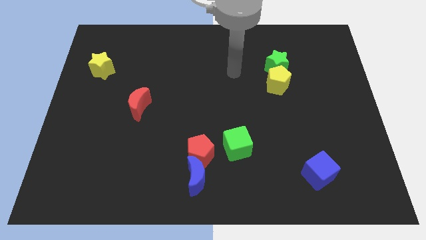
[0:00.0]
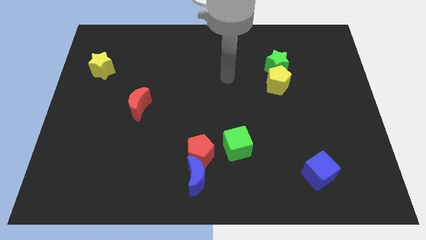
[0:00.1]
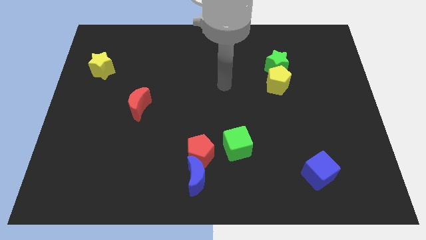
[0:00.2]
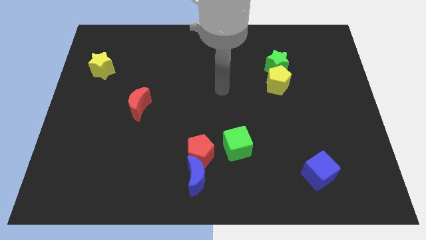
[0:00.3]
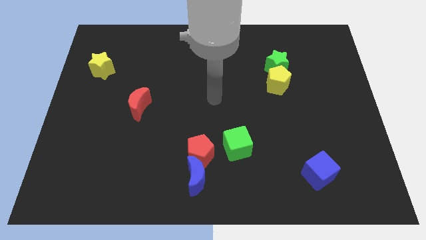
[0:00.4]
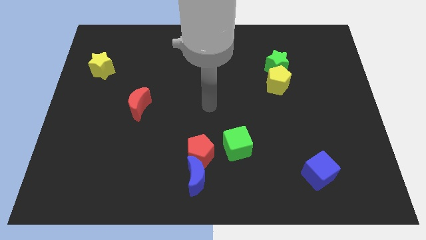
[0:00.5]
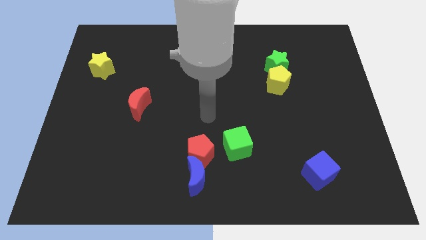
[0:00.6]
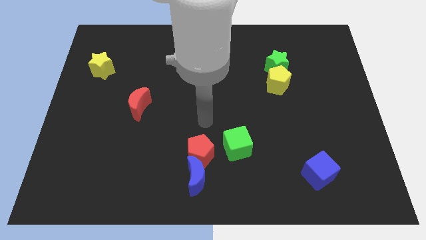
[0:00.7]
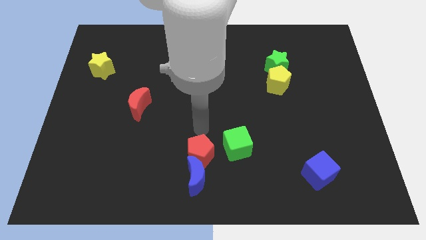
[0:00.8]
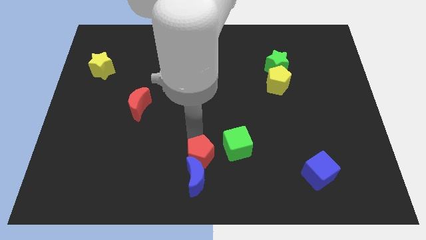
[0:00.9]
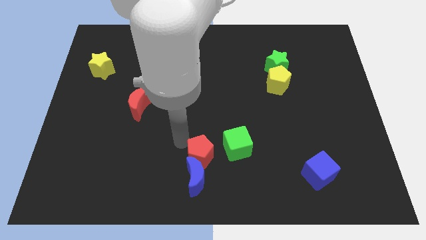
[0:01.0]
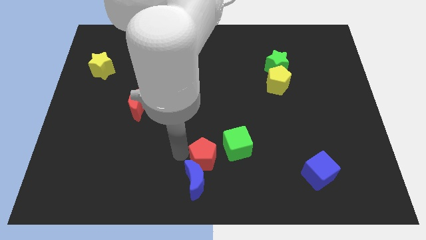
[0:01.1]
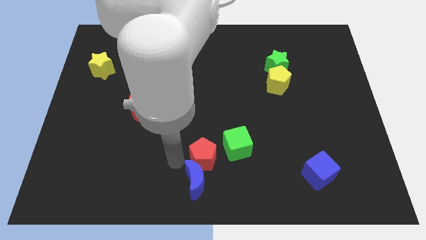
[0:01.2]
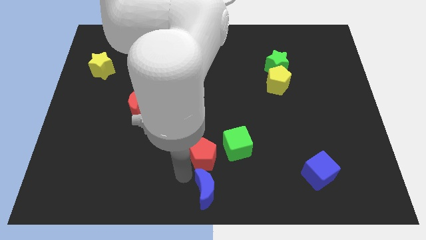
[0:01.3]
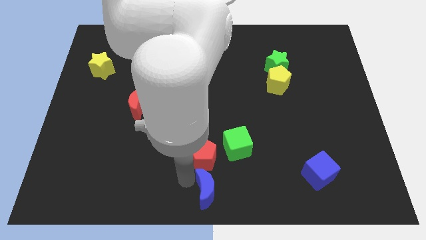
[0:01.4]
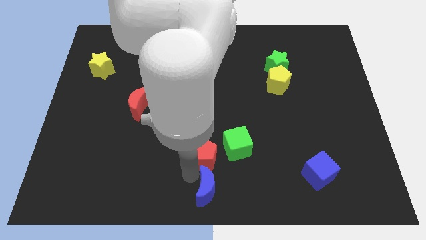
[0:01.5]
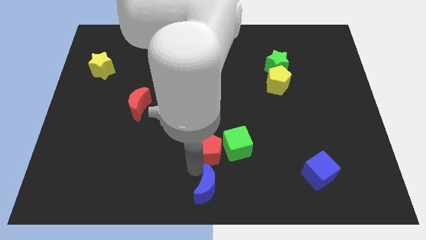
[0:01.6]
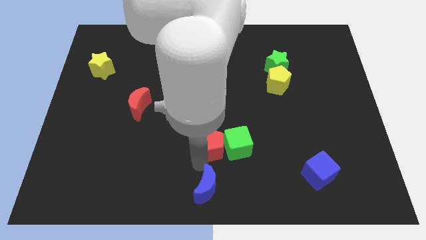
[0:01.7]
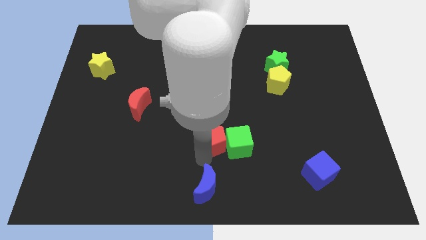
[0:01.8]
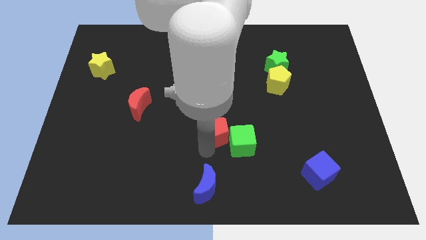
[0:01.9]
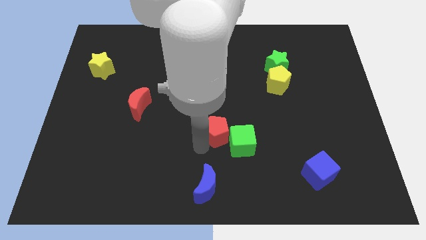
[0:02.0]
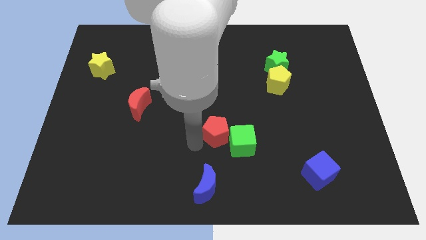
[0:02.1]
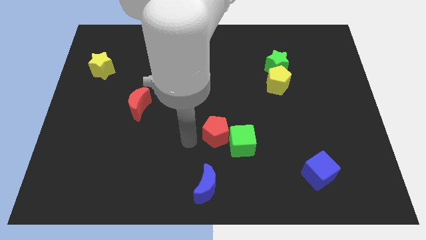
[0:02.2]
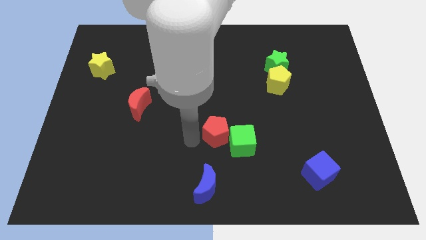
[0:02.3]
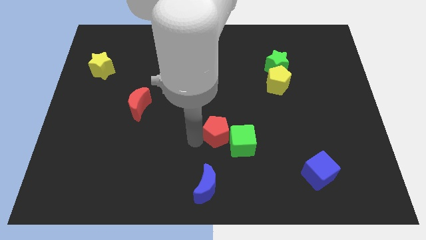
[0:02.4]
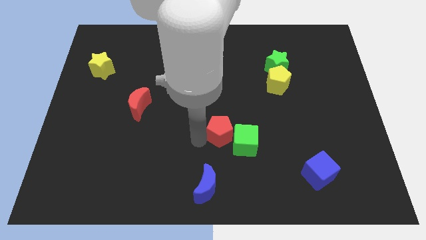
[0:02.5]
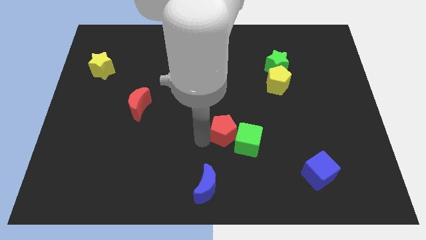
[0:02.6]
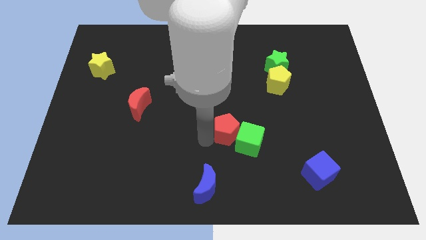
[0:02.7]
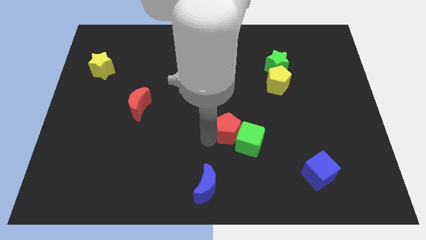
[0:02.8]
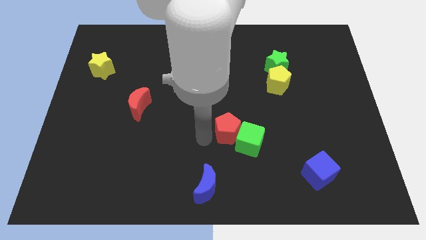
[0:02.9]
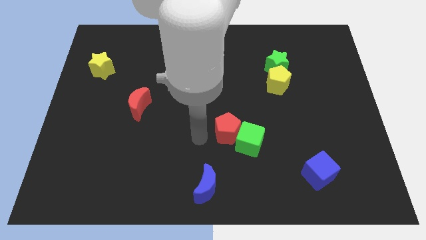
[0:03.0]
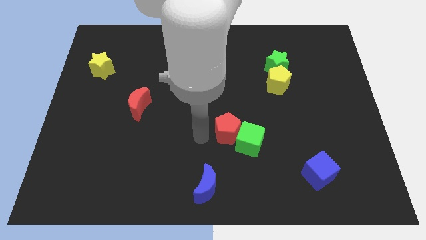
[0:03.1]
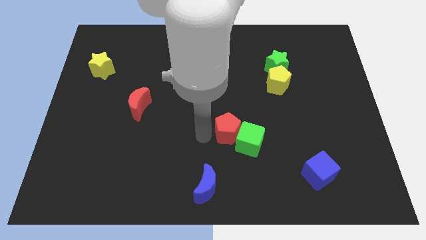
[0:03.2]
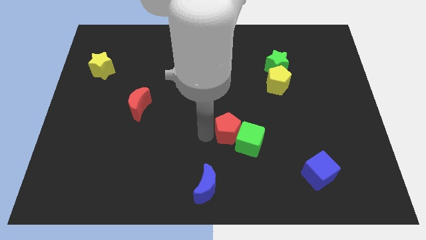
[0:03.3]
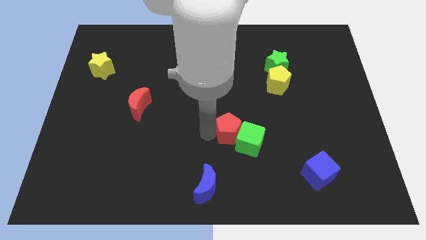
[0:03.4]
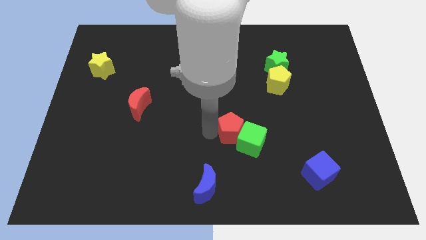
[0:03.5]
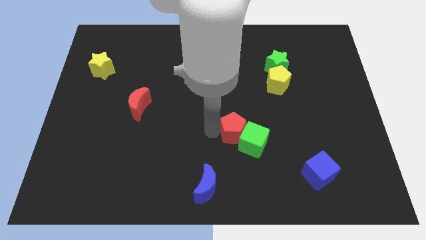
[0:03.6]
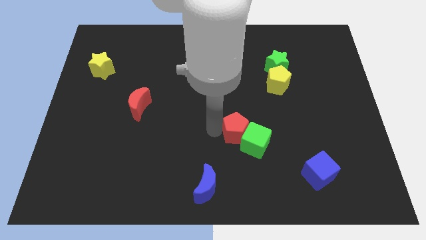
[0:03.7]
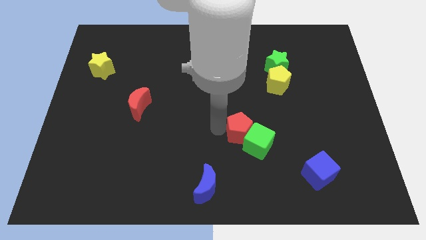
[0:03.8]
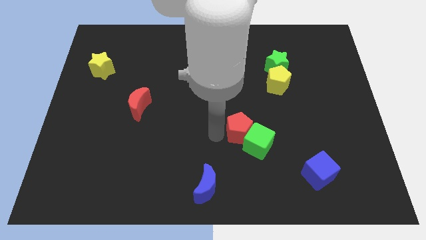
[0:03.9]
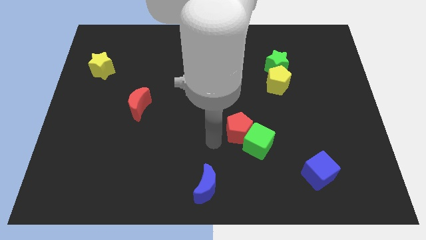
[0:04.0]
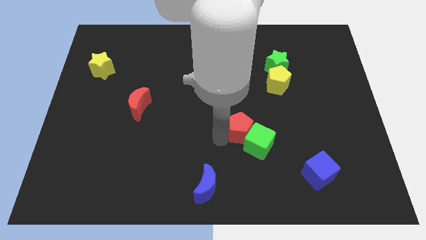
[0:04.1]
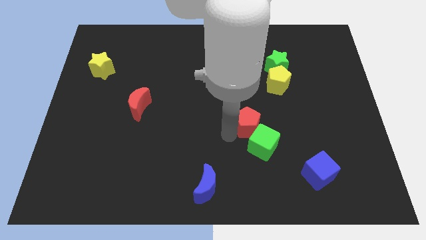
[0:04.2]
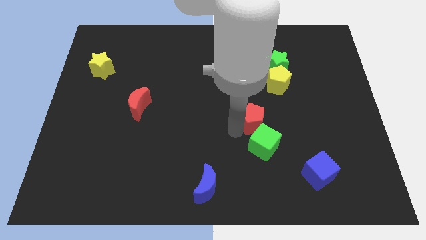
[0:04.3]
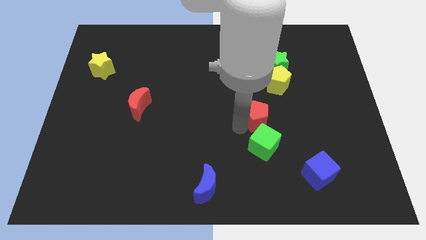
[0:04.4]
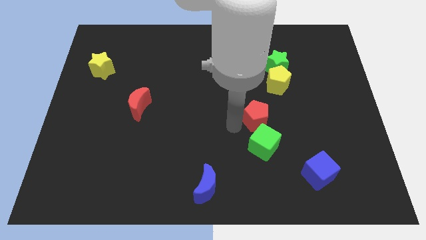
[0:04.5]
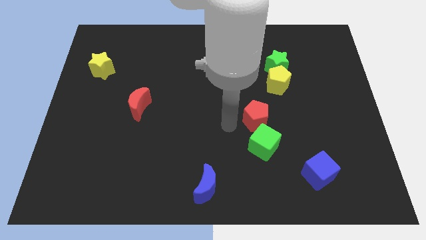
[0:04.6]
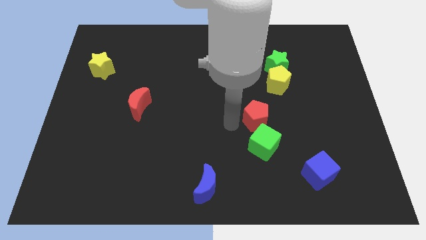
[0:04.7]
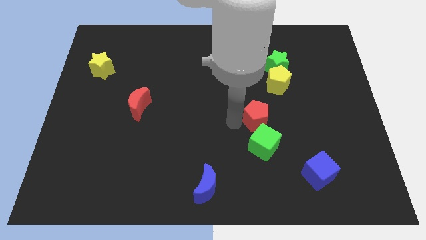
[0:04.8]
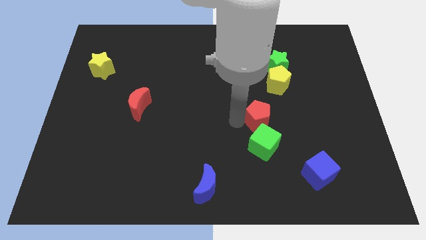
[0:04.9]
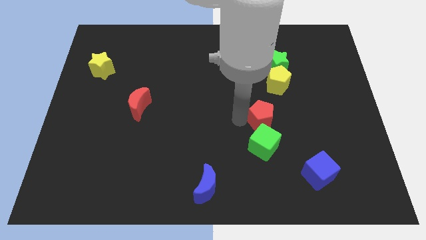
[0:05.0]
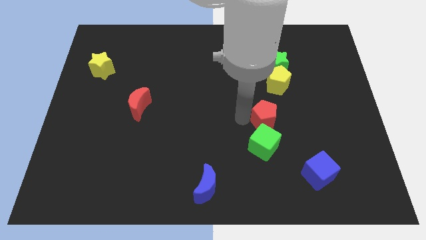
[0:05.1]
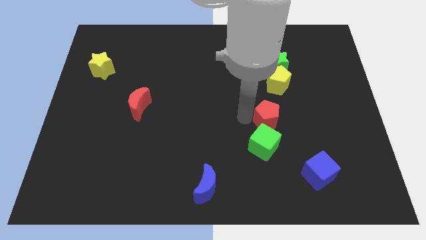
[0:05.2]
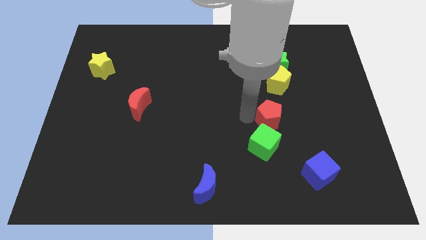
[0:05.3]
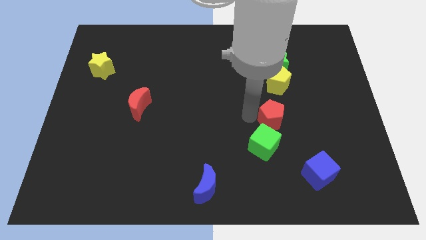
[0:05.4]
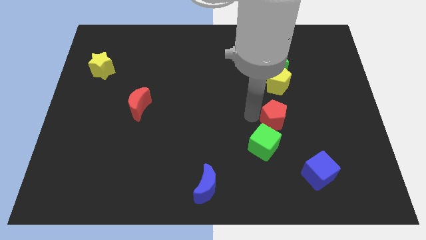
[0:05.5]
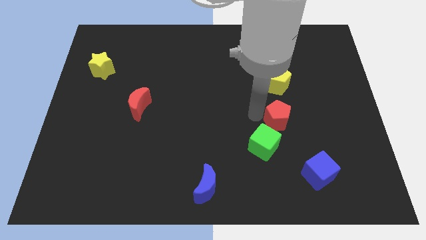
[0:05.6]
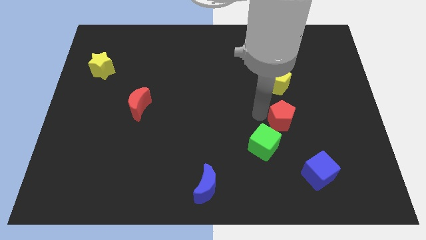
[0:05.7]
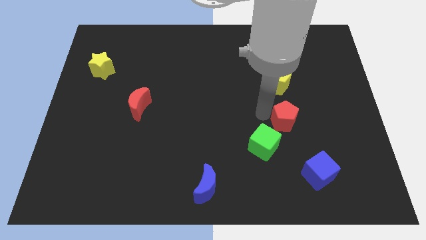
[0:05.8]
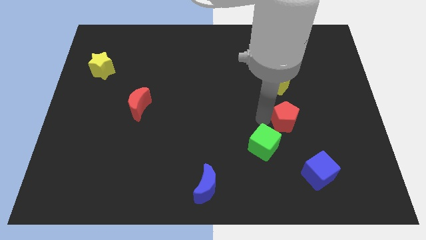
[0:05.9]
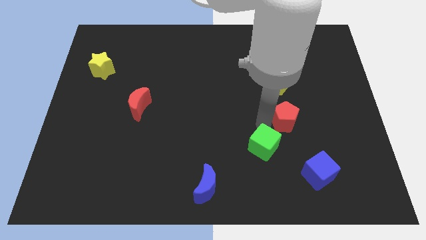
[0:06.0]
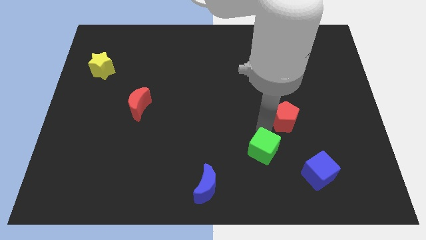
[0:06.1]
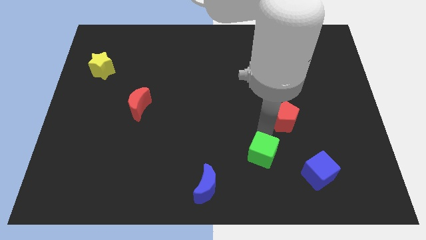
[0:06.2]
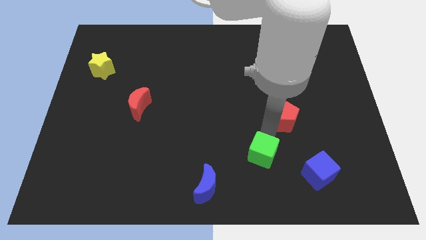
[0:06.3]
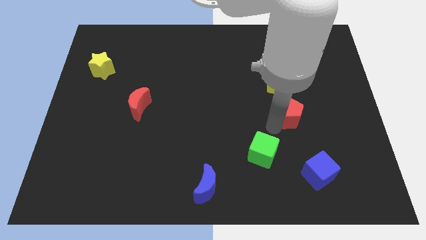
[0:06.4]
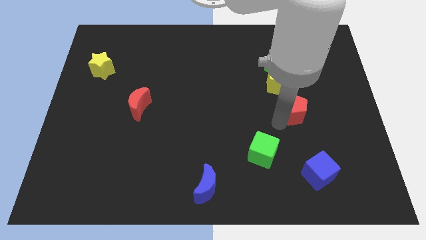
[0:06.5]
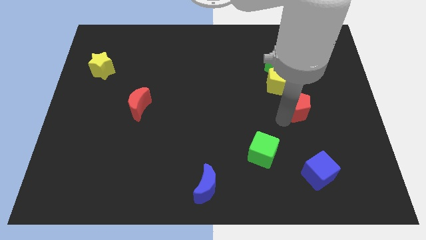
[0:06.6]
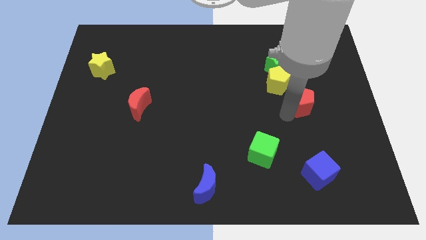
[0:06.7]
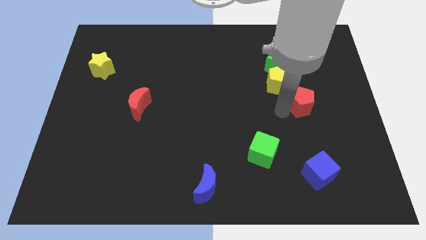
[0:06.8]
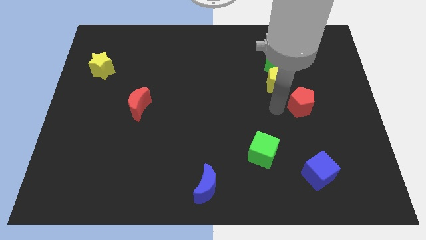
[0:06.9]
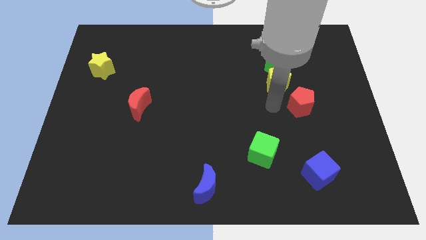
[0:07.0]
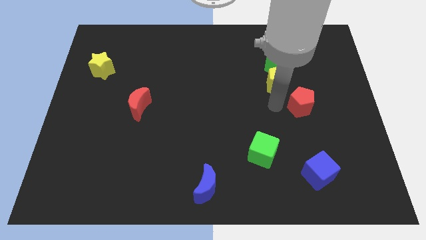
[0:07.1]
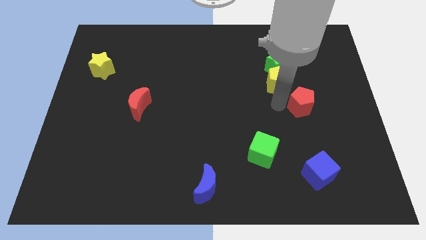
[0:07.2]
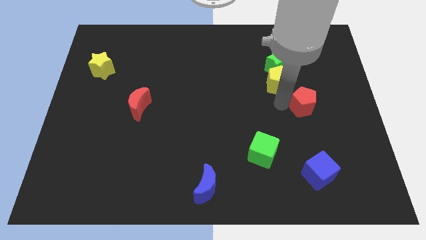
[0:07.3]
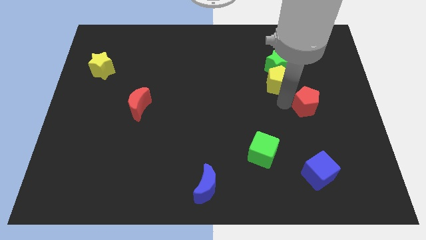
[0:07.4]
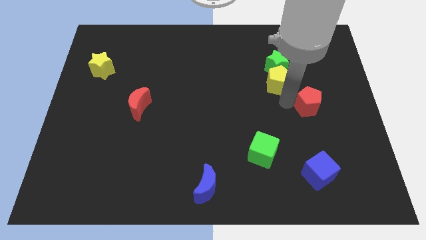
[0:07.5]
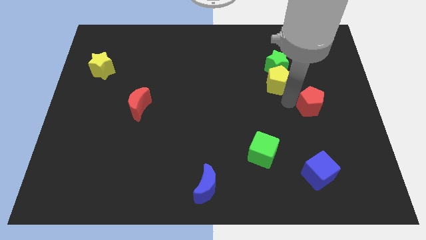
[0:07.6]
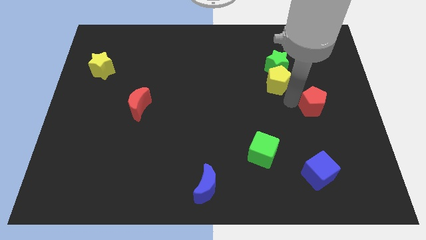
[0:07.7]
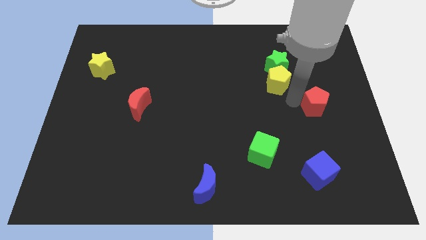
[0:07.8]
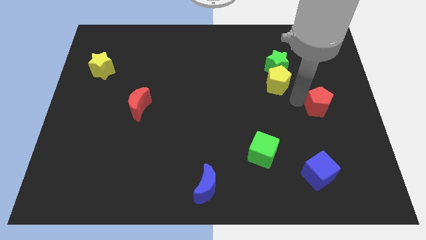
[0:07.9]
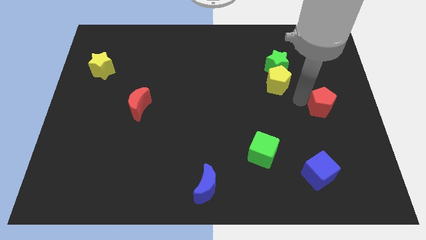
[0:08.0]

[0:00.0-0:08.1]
push the red pentagon to the center right
